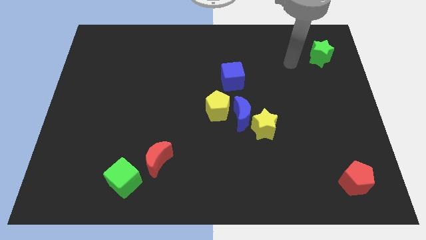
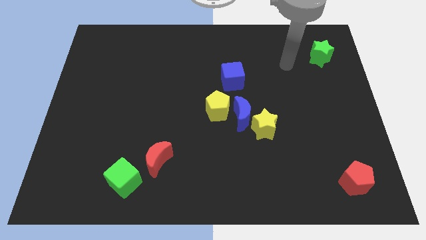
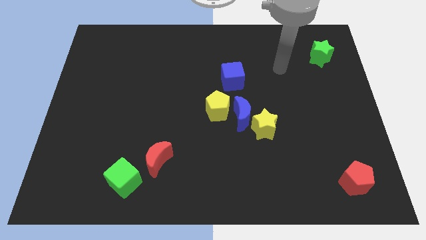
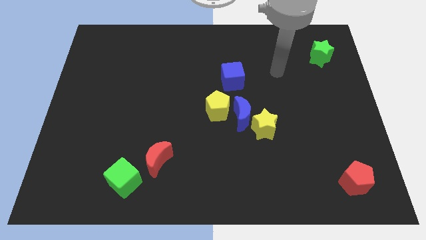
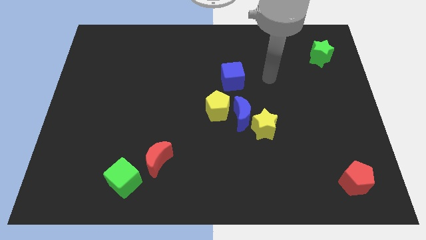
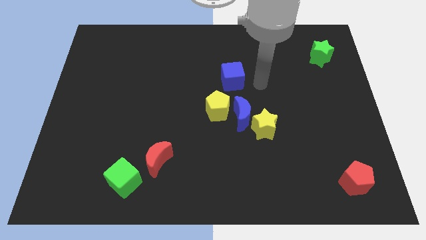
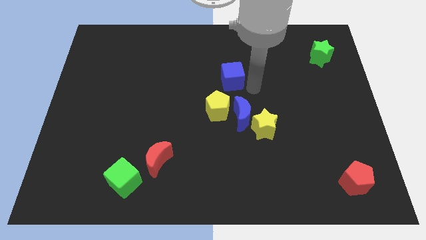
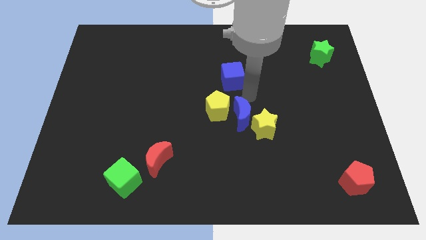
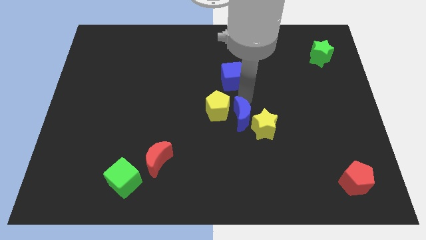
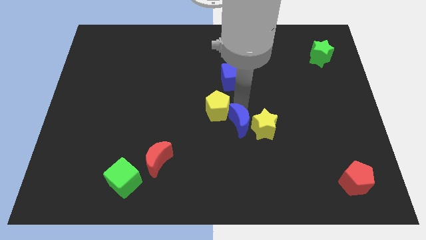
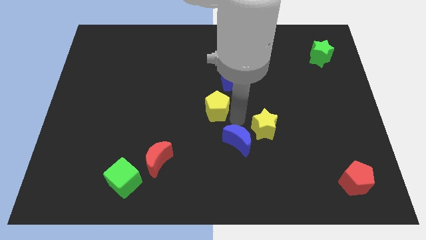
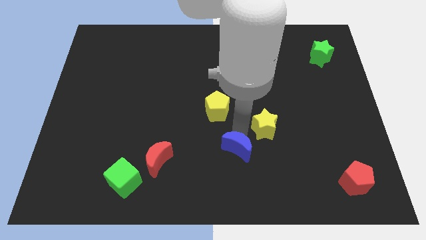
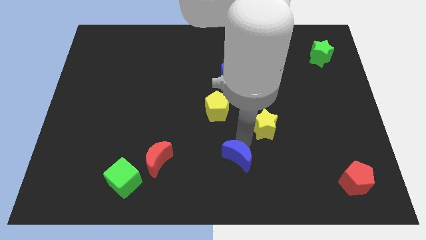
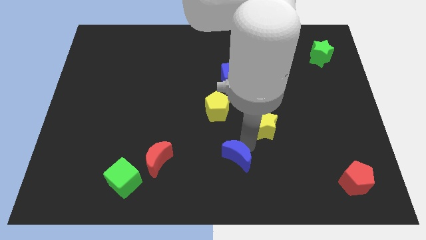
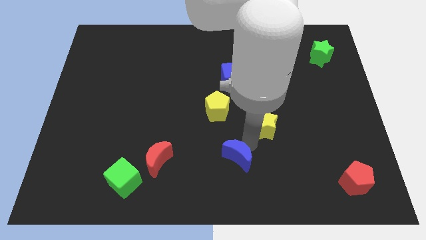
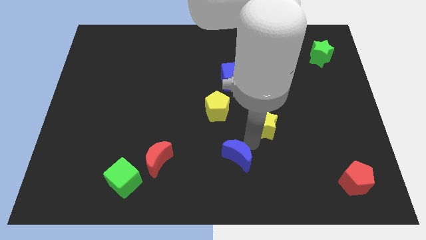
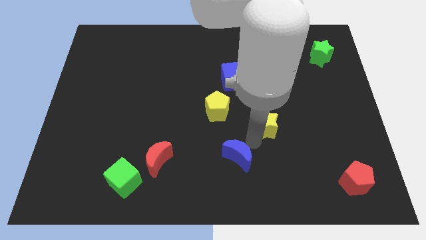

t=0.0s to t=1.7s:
separate the yellow star from the blue moon

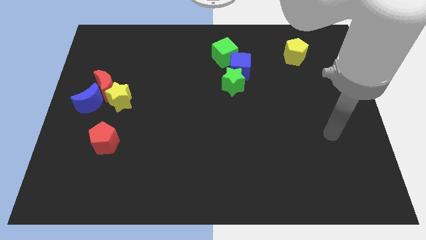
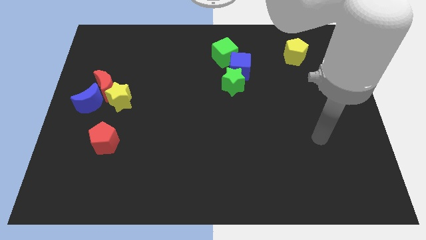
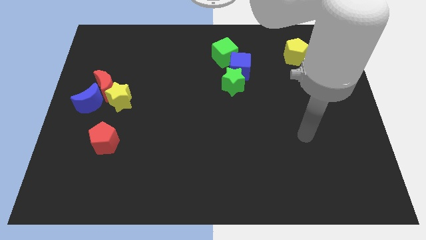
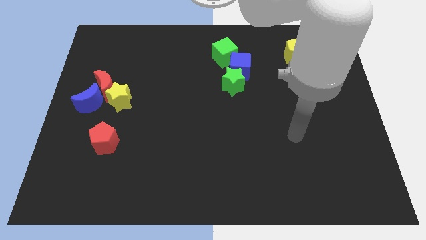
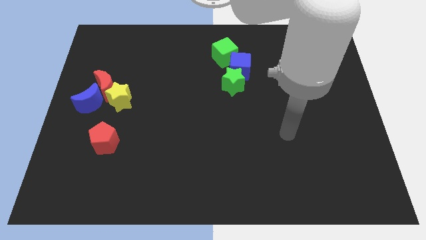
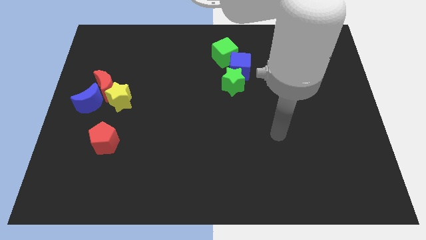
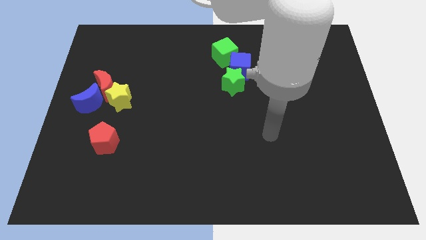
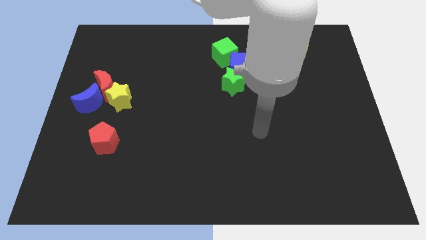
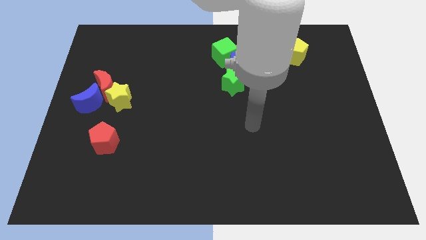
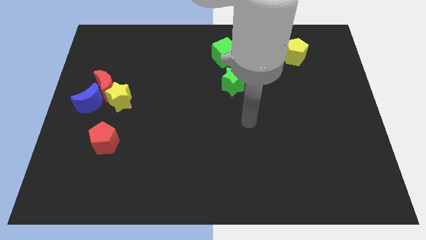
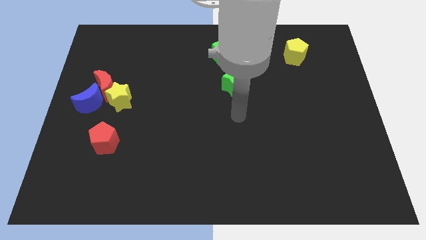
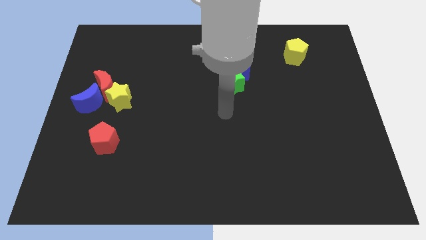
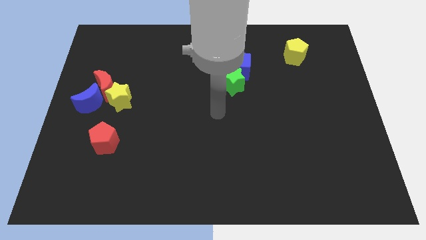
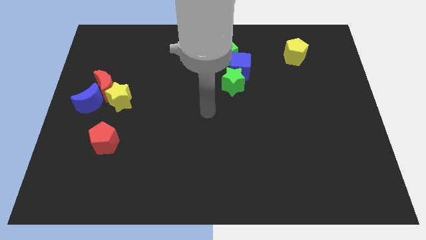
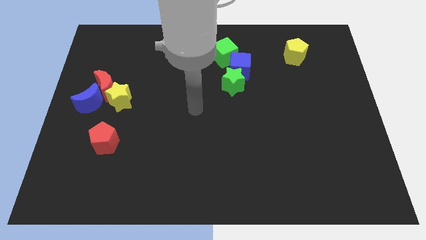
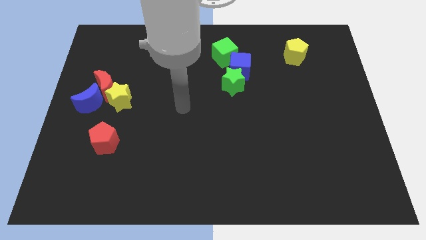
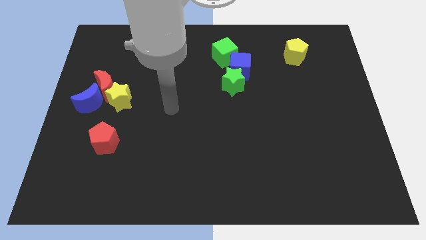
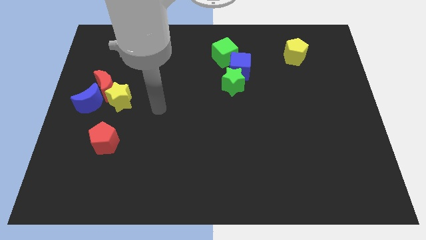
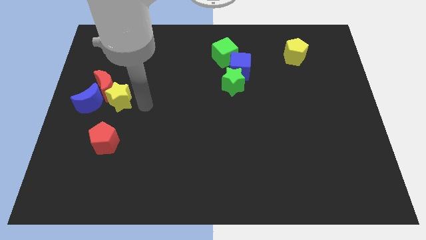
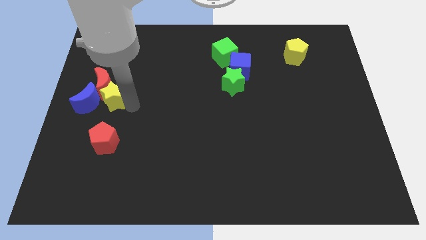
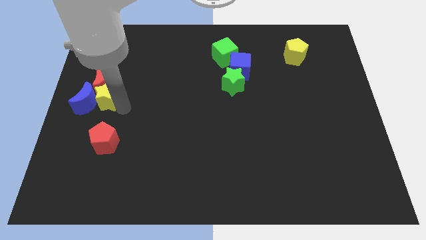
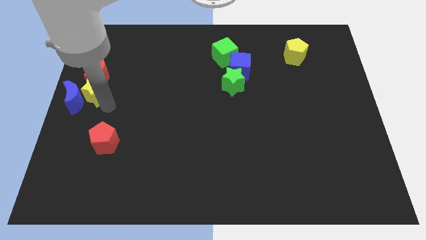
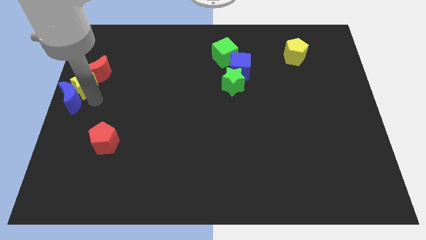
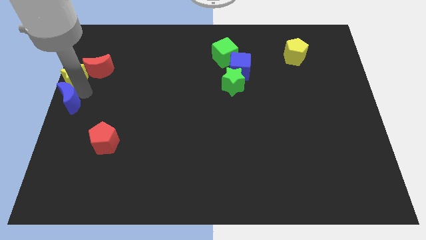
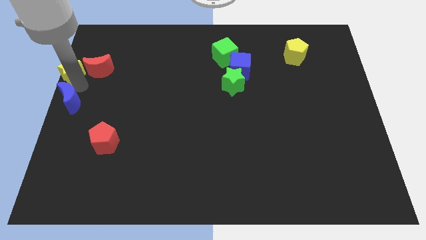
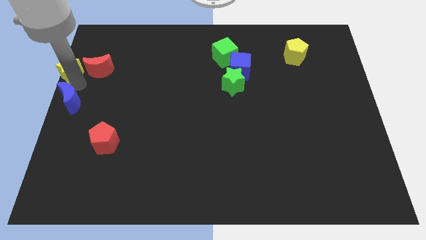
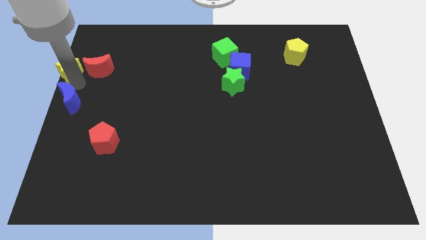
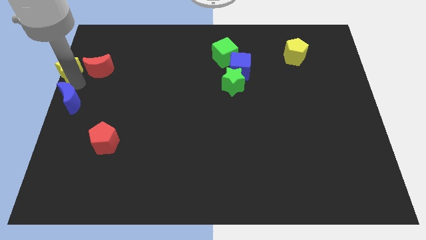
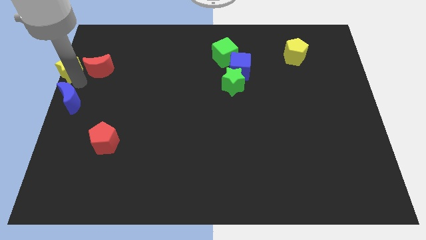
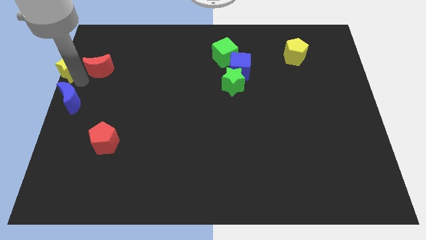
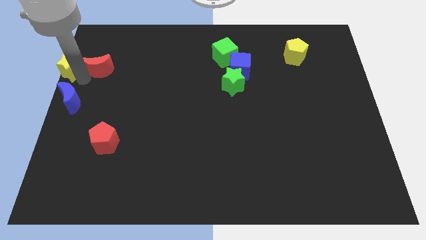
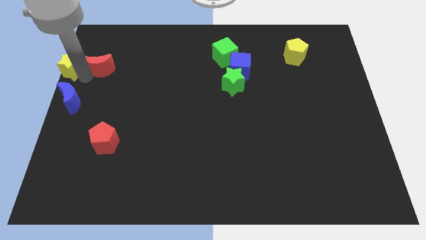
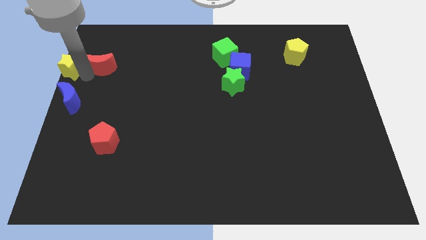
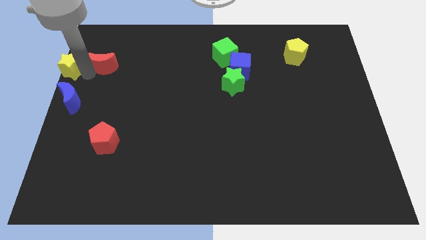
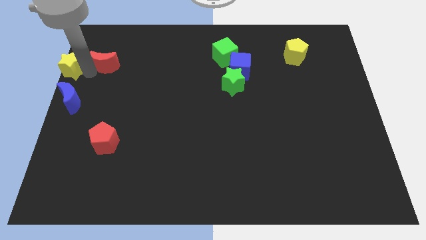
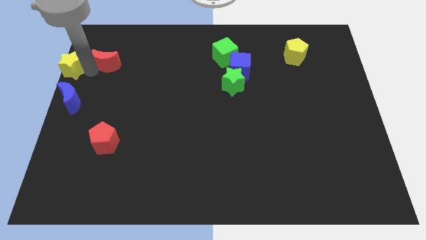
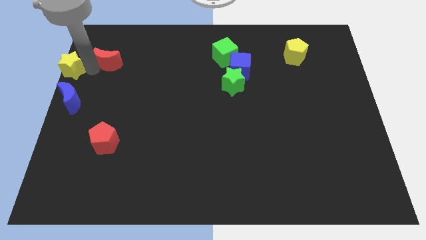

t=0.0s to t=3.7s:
separate the red moon from the yellow star and blue moon

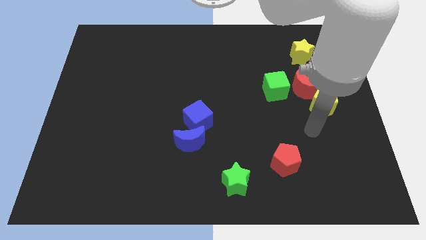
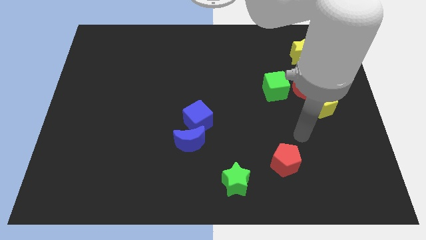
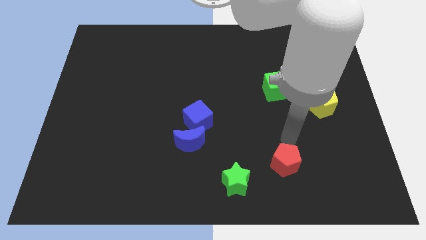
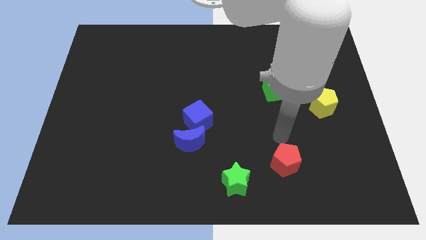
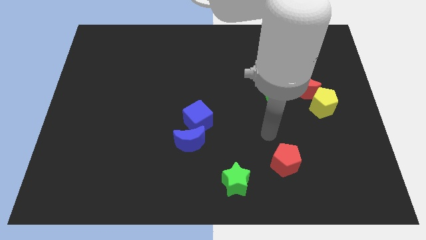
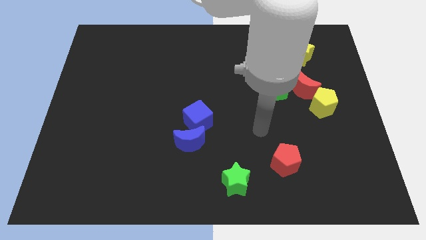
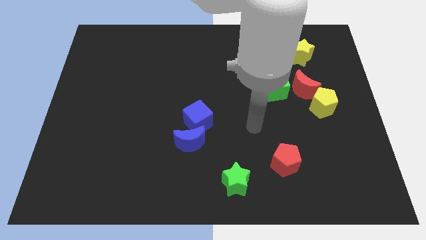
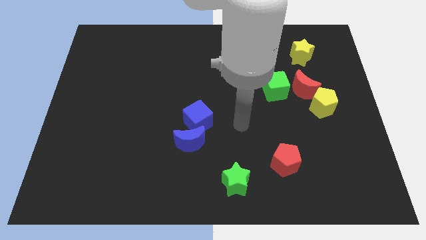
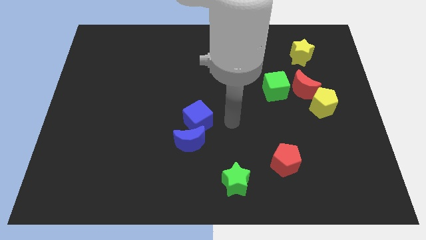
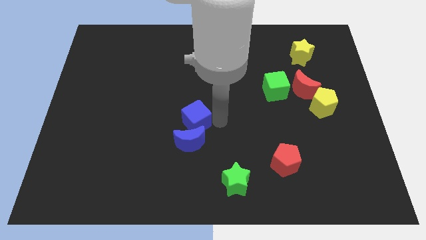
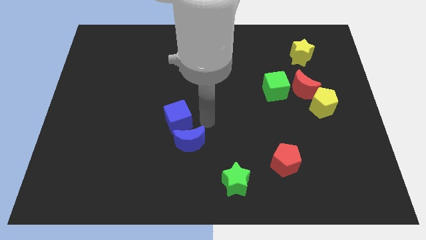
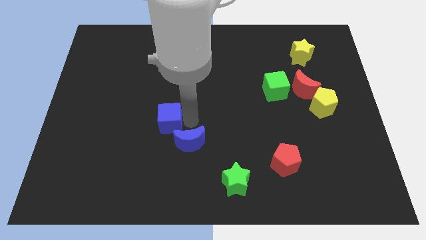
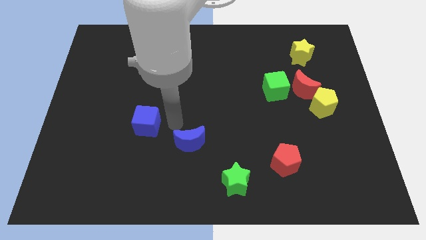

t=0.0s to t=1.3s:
separate the blue moon from the blue cube

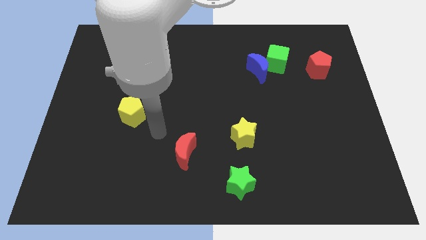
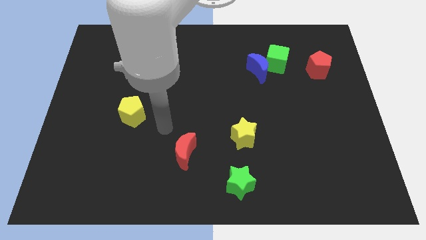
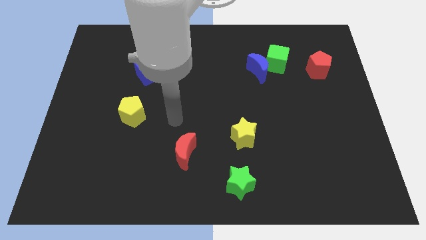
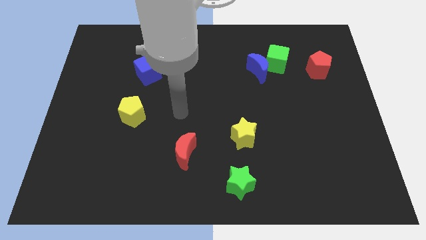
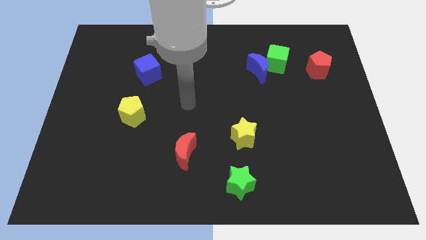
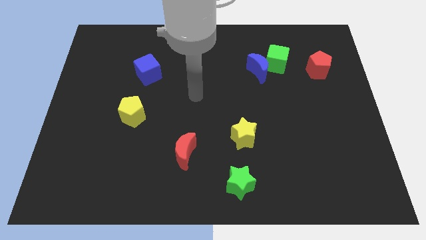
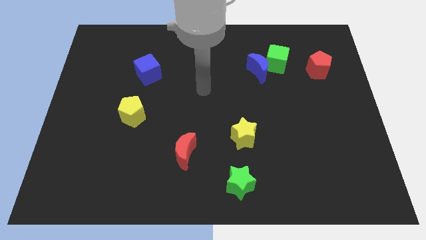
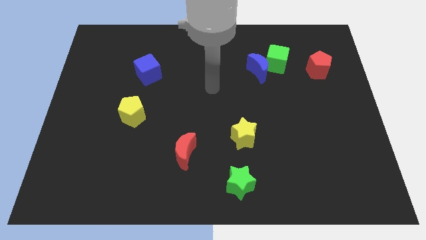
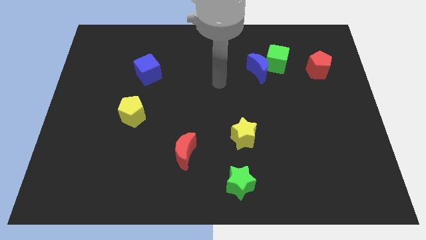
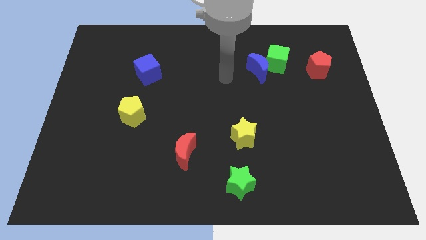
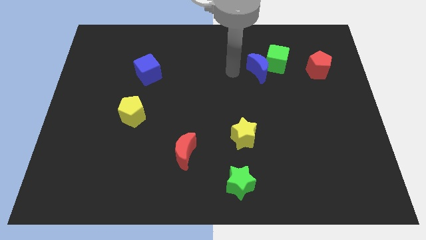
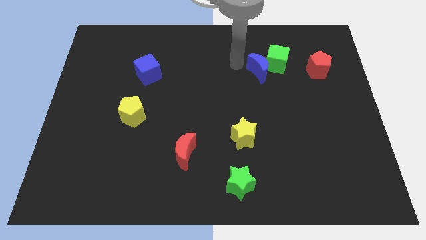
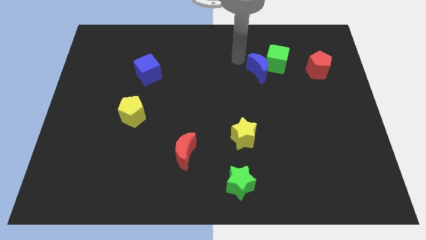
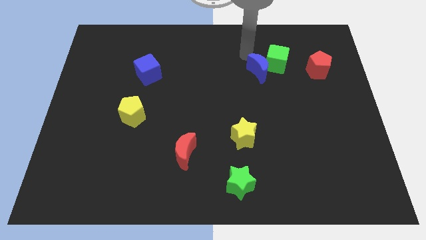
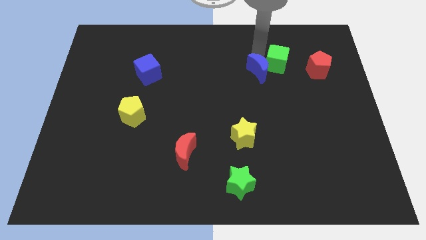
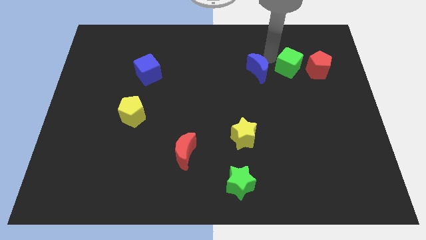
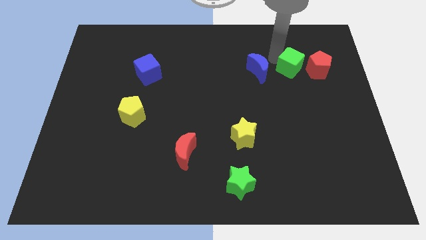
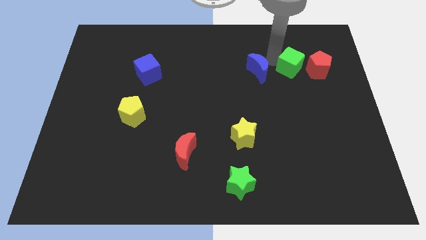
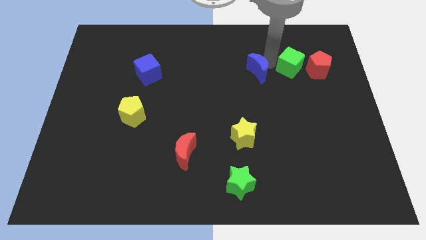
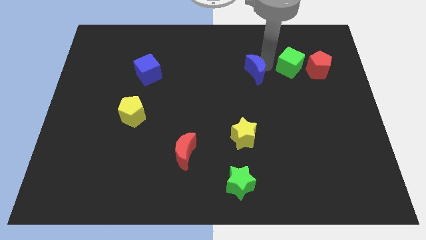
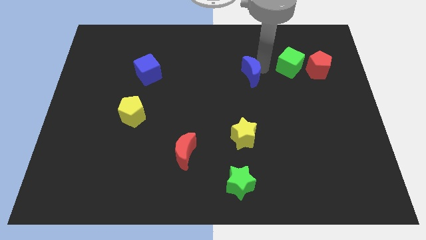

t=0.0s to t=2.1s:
separate the blue moon from the green cube

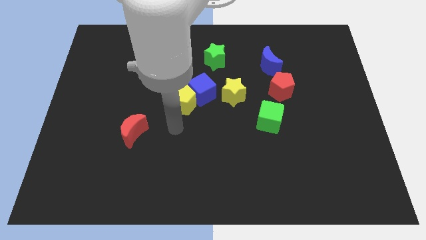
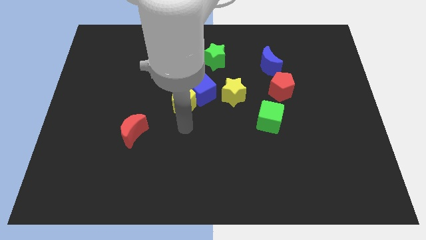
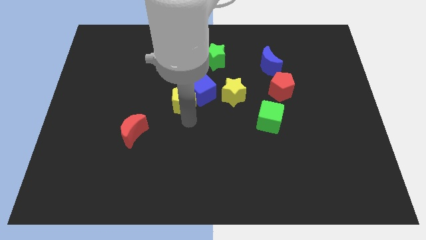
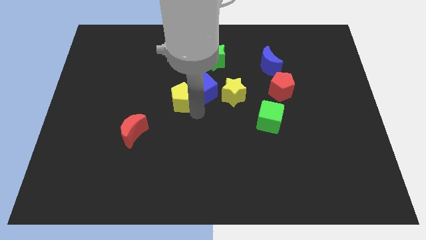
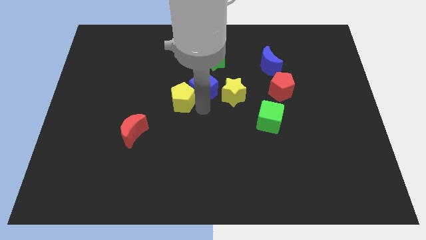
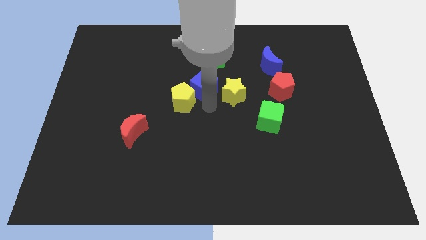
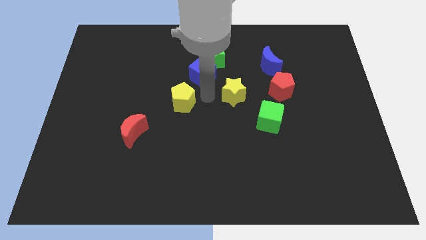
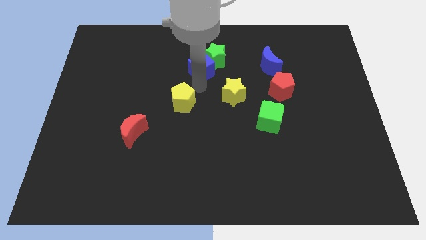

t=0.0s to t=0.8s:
separate the yellow pentagon from the blue cube
